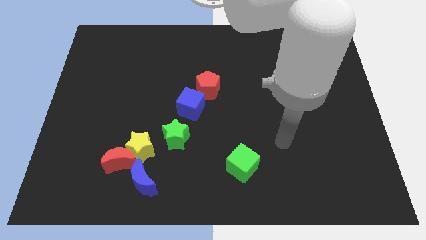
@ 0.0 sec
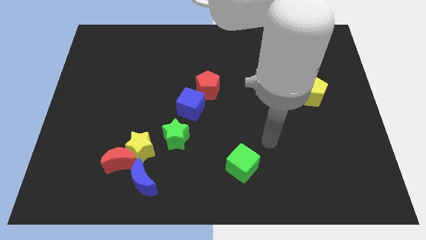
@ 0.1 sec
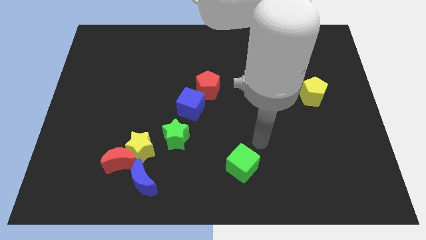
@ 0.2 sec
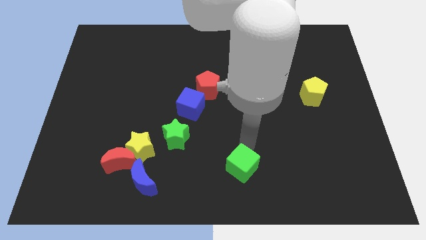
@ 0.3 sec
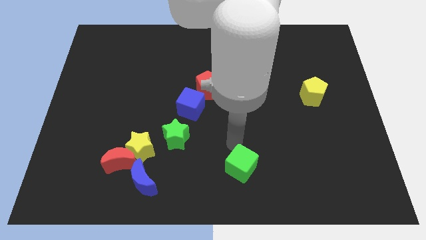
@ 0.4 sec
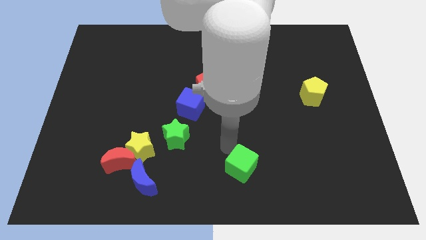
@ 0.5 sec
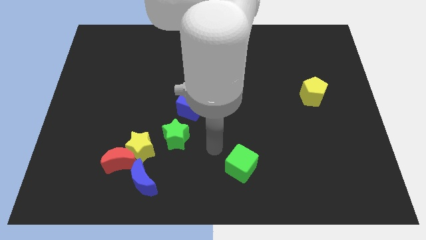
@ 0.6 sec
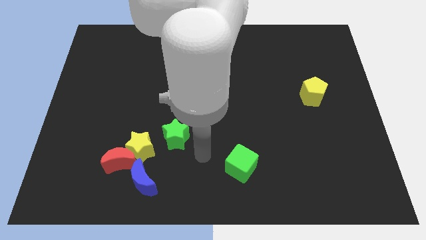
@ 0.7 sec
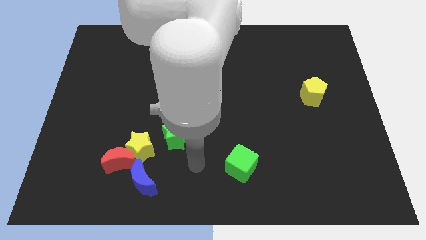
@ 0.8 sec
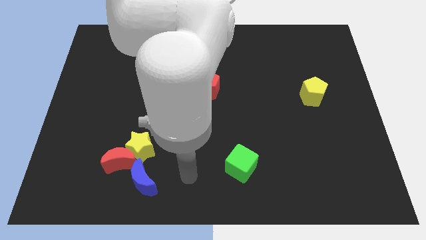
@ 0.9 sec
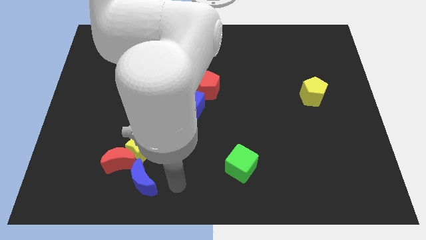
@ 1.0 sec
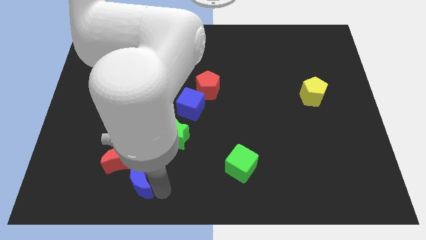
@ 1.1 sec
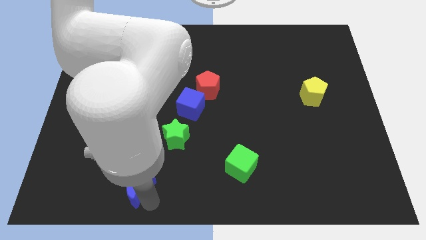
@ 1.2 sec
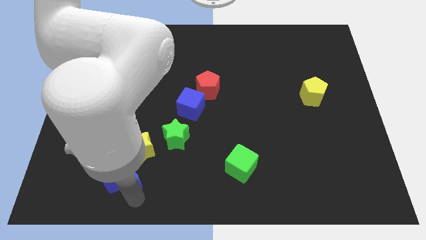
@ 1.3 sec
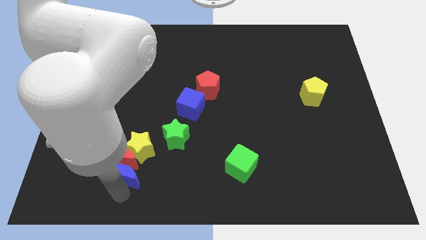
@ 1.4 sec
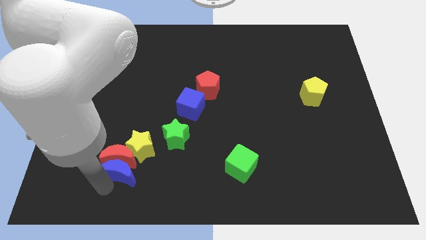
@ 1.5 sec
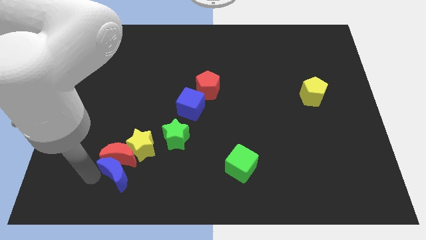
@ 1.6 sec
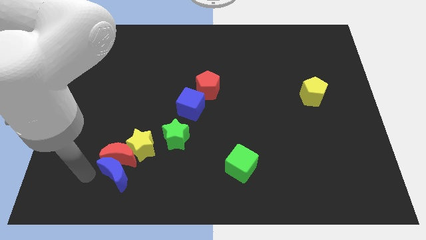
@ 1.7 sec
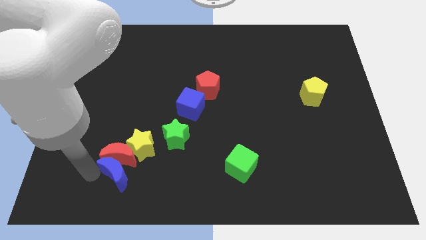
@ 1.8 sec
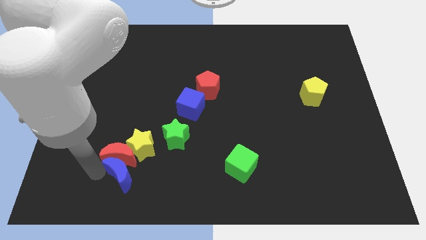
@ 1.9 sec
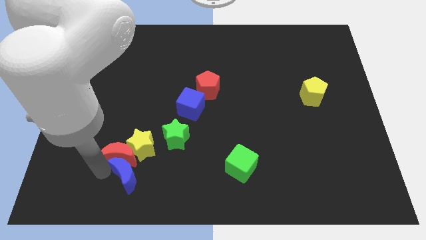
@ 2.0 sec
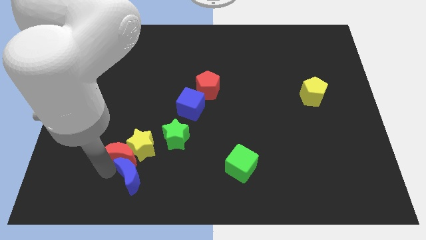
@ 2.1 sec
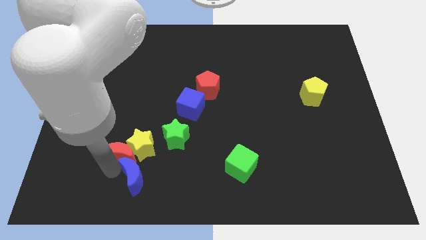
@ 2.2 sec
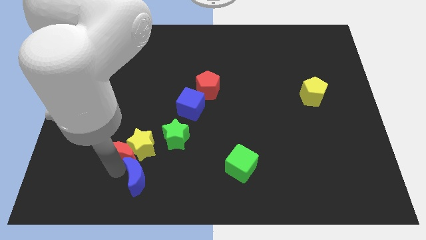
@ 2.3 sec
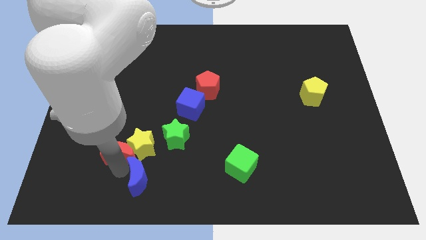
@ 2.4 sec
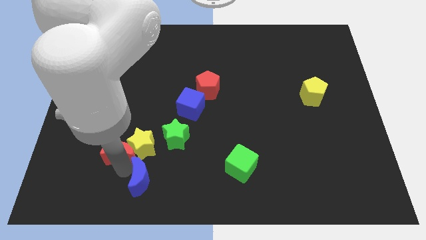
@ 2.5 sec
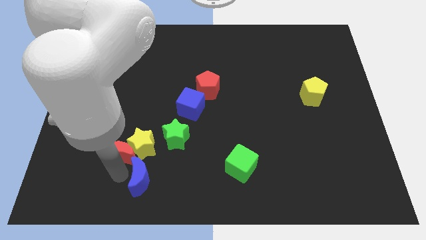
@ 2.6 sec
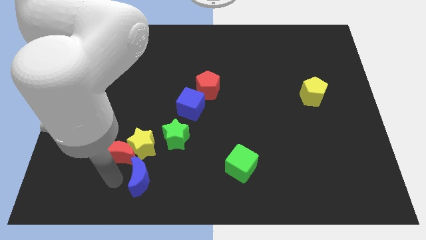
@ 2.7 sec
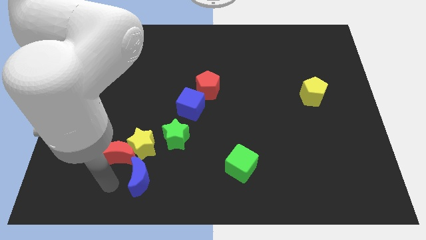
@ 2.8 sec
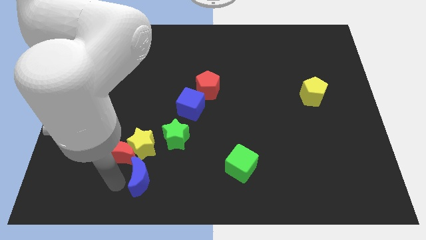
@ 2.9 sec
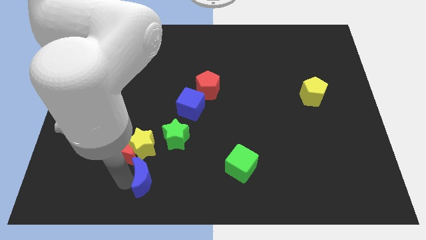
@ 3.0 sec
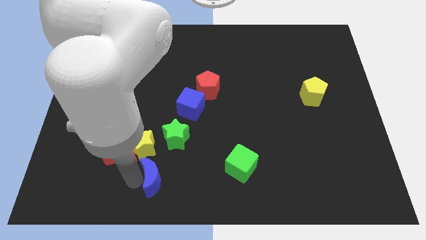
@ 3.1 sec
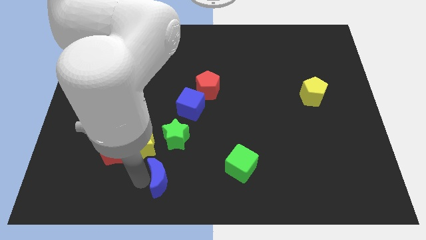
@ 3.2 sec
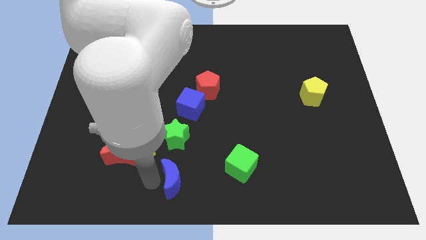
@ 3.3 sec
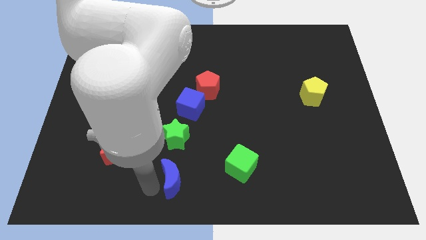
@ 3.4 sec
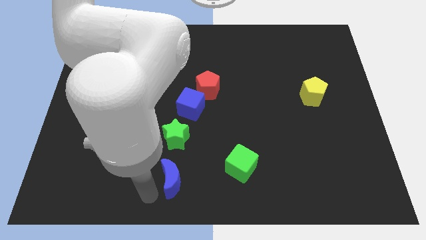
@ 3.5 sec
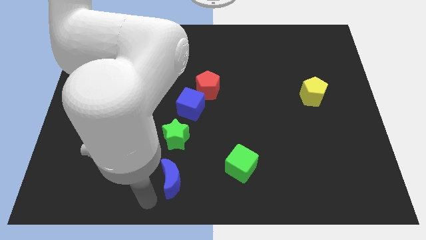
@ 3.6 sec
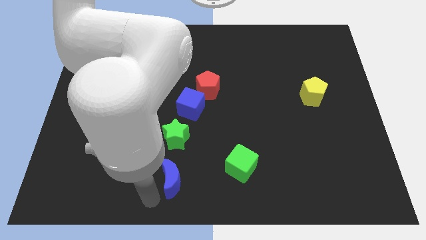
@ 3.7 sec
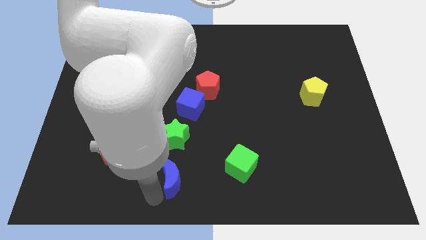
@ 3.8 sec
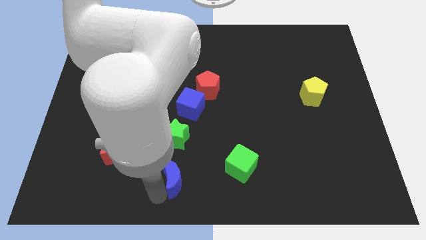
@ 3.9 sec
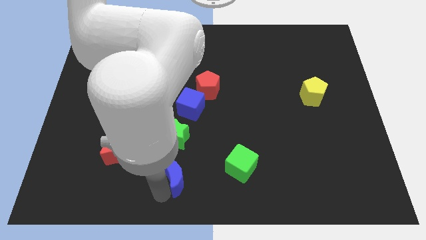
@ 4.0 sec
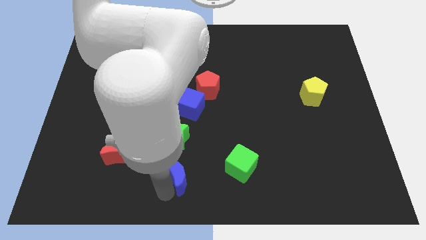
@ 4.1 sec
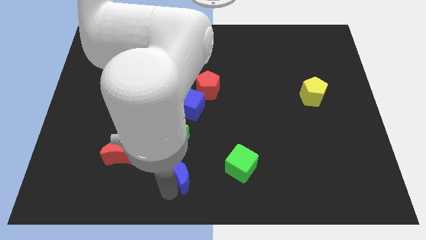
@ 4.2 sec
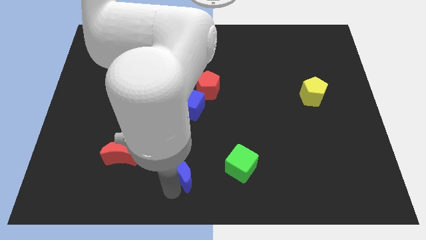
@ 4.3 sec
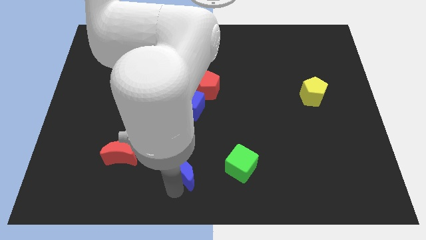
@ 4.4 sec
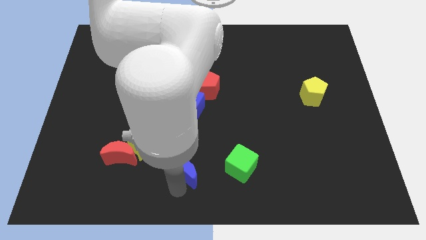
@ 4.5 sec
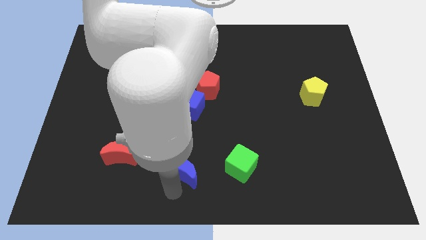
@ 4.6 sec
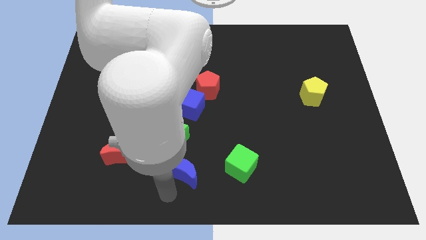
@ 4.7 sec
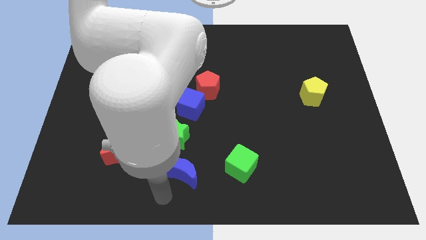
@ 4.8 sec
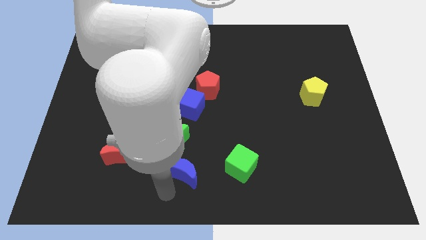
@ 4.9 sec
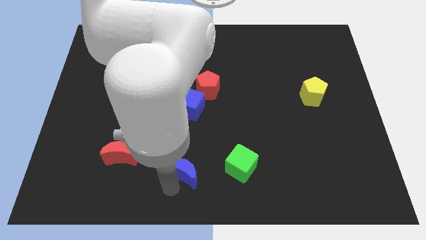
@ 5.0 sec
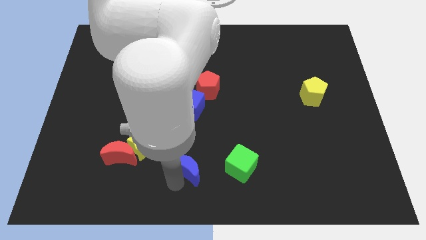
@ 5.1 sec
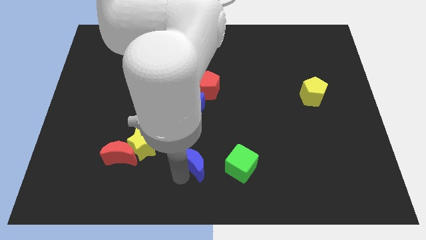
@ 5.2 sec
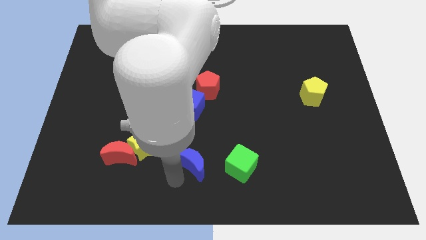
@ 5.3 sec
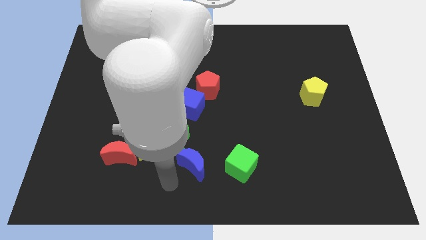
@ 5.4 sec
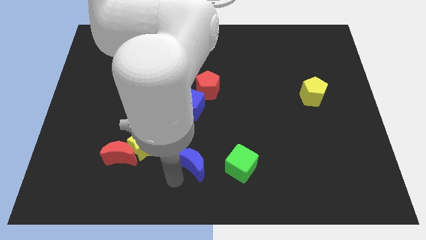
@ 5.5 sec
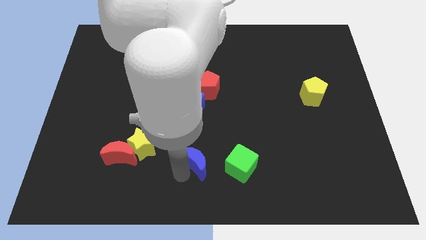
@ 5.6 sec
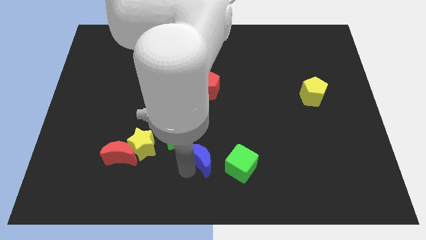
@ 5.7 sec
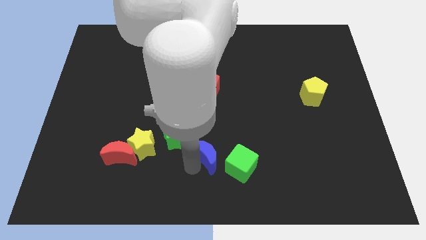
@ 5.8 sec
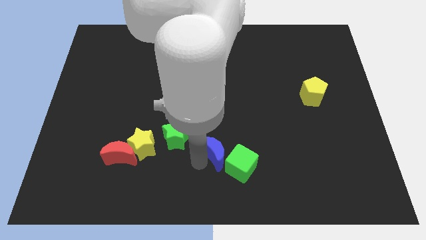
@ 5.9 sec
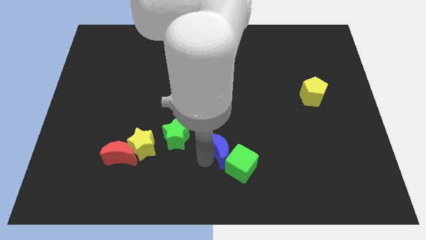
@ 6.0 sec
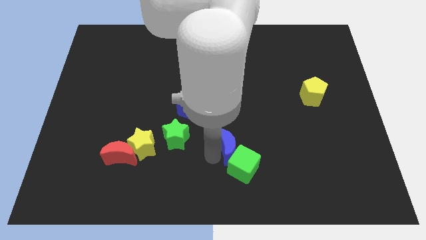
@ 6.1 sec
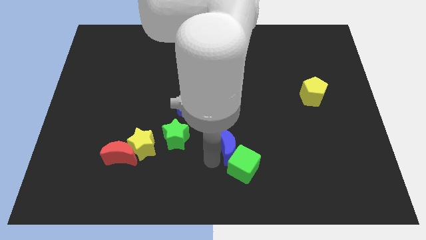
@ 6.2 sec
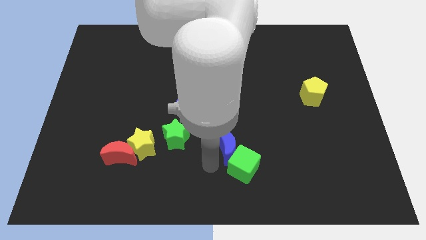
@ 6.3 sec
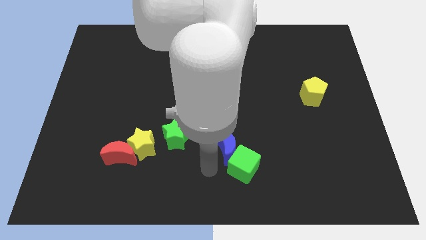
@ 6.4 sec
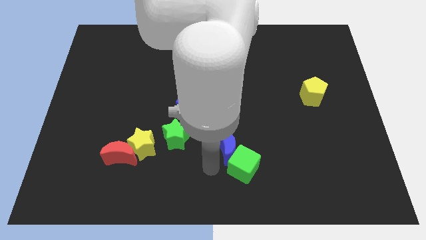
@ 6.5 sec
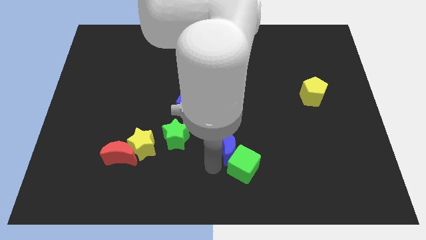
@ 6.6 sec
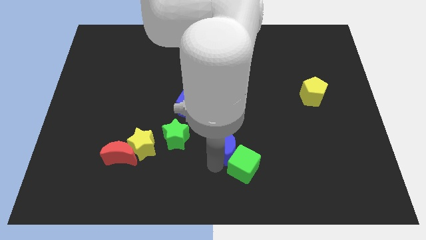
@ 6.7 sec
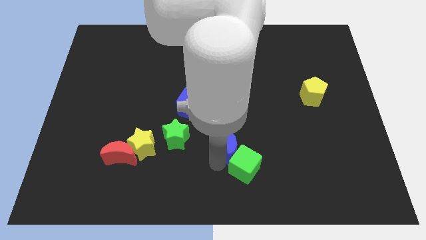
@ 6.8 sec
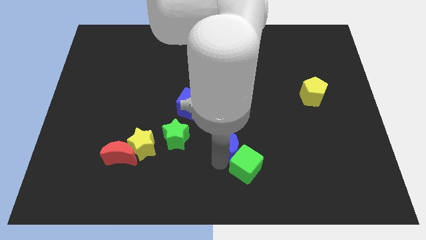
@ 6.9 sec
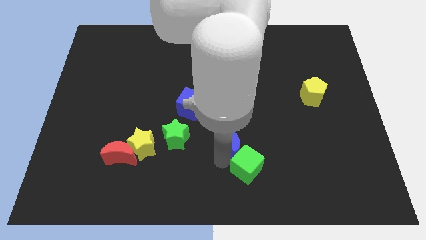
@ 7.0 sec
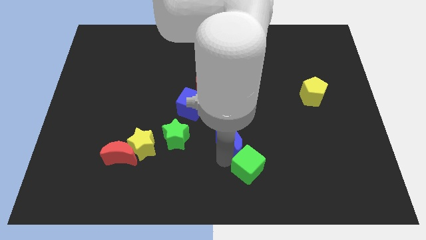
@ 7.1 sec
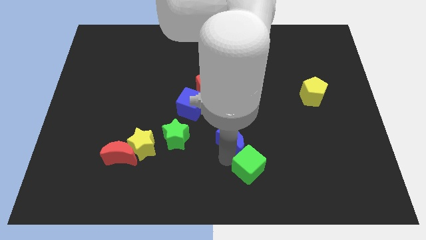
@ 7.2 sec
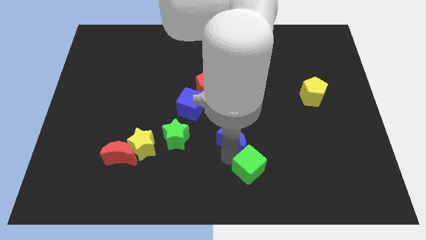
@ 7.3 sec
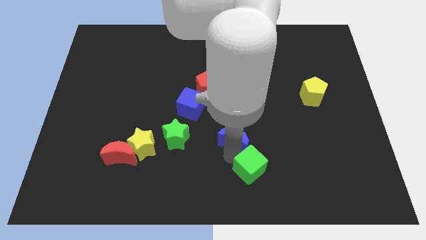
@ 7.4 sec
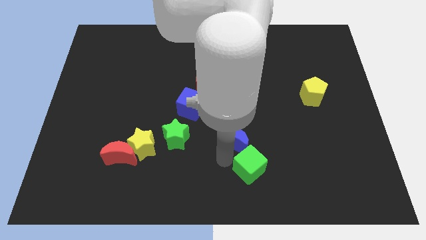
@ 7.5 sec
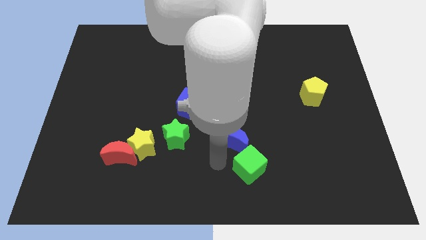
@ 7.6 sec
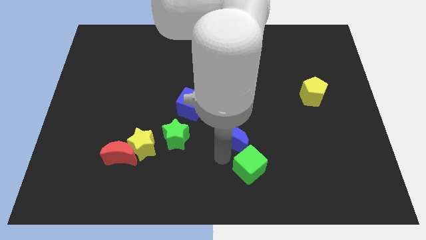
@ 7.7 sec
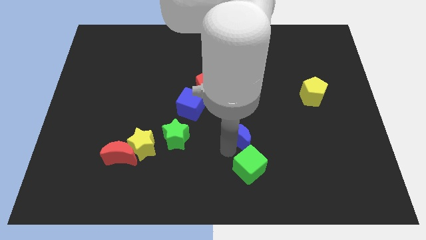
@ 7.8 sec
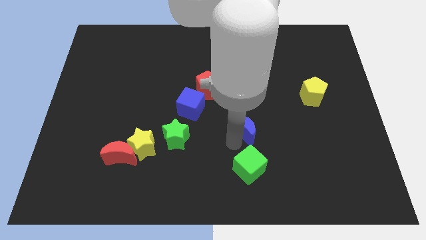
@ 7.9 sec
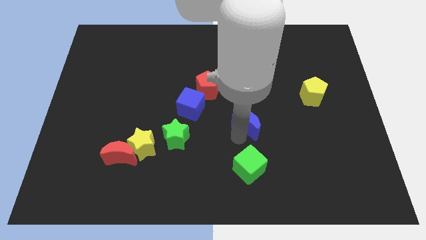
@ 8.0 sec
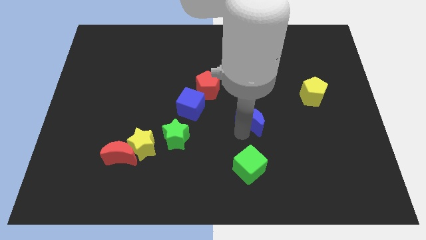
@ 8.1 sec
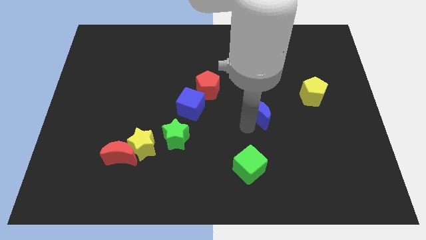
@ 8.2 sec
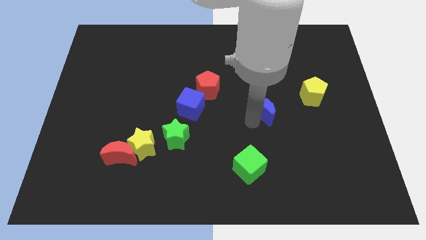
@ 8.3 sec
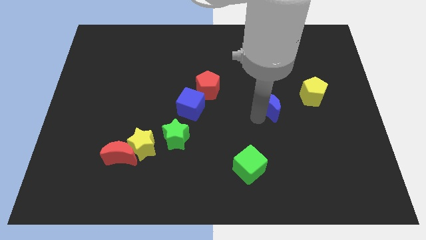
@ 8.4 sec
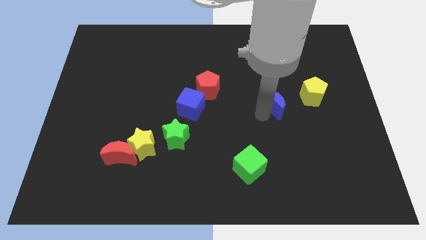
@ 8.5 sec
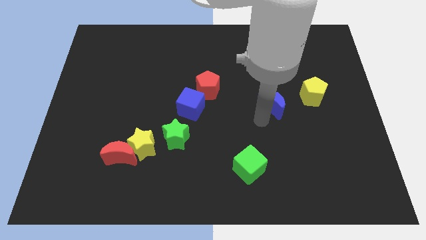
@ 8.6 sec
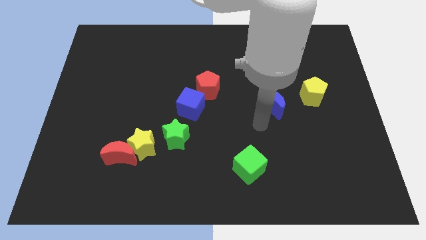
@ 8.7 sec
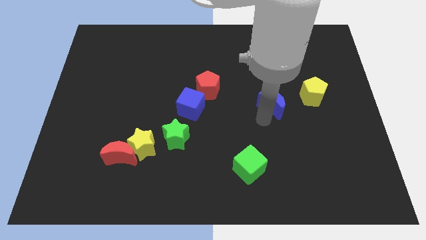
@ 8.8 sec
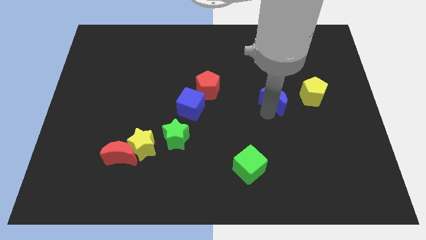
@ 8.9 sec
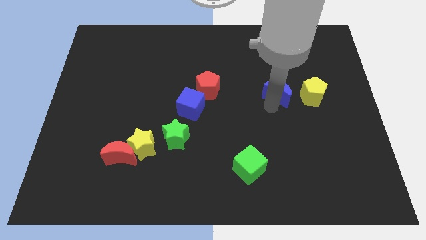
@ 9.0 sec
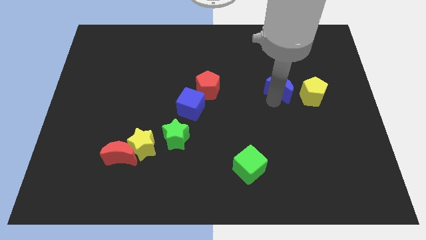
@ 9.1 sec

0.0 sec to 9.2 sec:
slide the blue moon to the top left of the yellow pentagon
